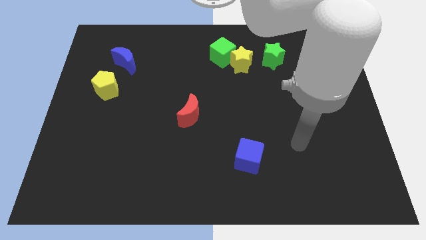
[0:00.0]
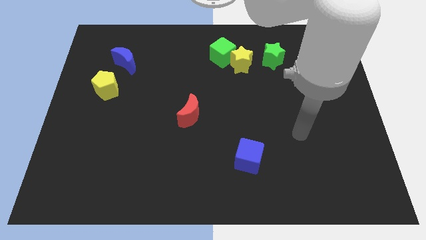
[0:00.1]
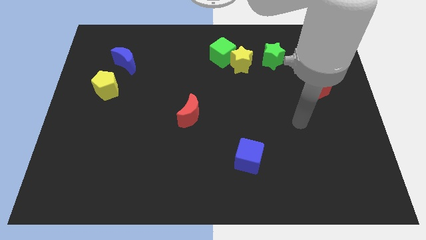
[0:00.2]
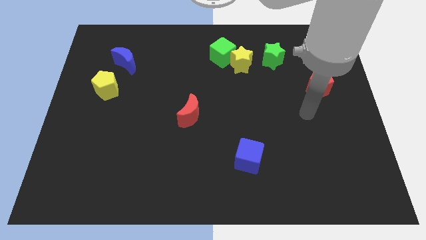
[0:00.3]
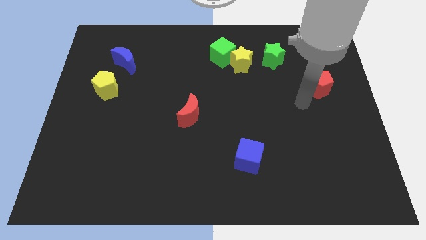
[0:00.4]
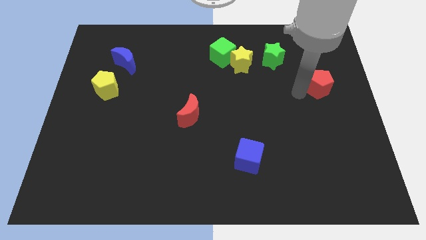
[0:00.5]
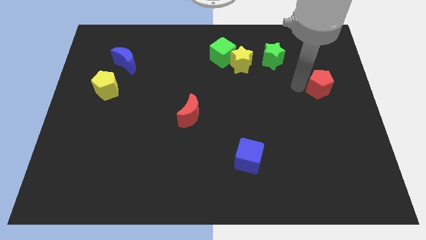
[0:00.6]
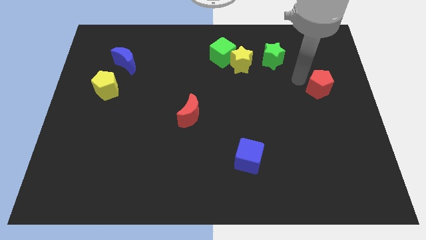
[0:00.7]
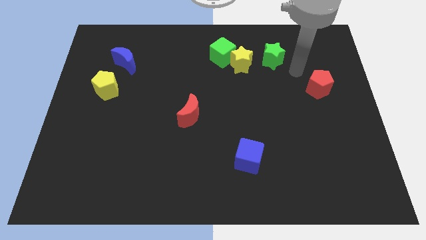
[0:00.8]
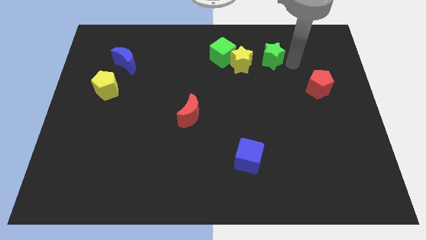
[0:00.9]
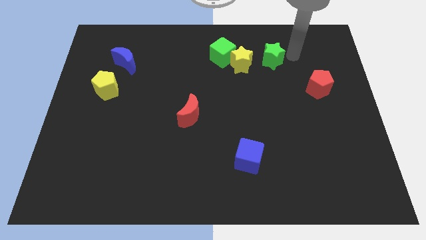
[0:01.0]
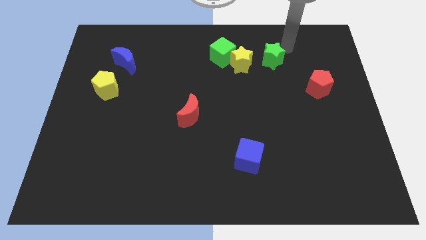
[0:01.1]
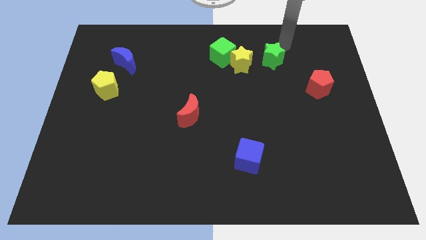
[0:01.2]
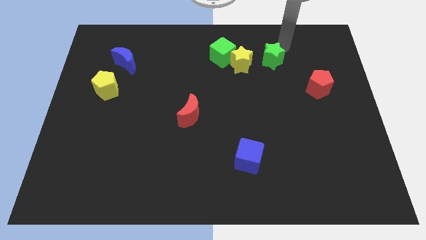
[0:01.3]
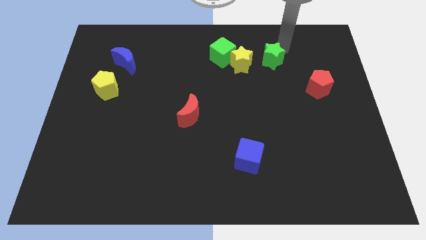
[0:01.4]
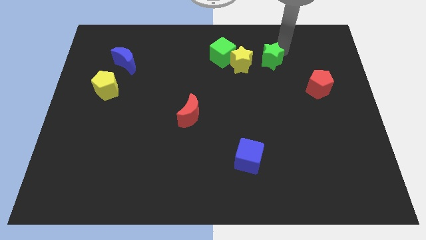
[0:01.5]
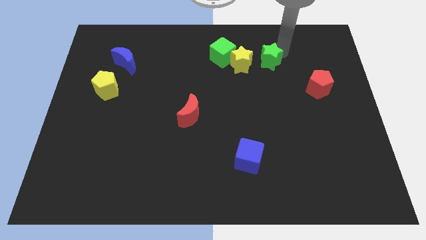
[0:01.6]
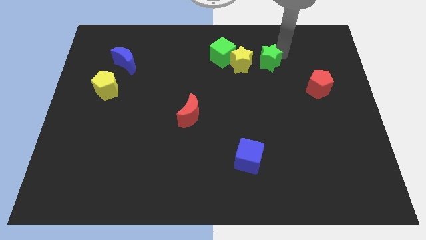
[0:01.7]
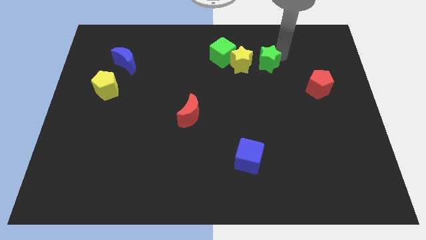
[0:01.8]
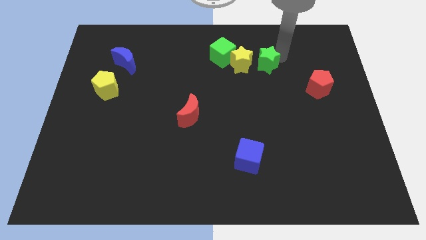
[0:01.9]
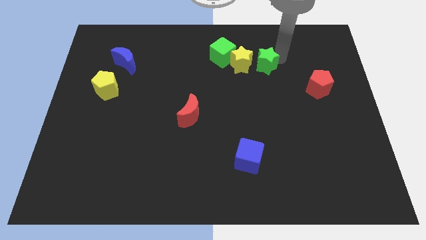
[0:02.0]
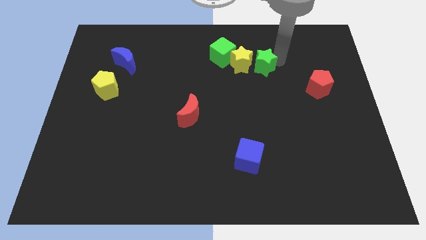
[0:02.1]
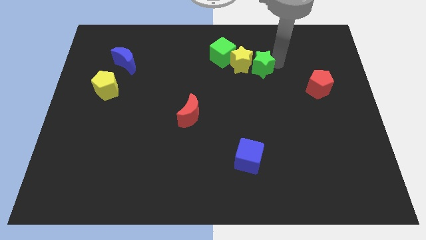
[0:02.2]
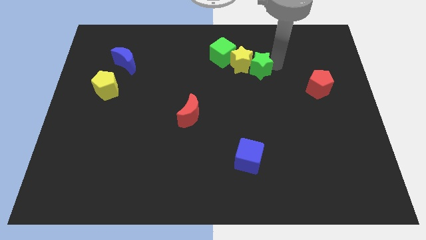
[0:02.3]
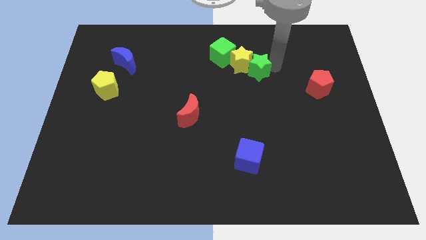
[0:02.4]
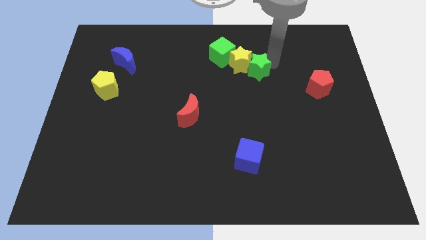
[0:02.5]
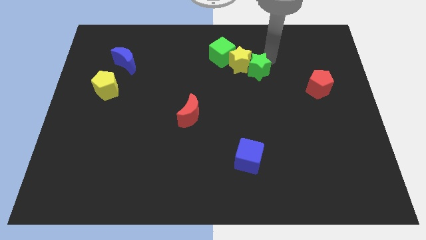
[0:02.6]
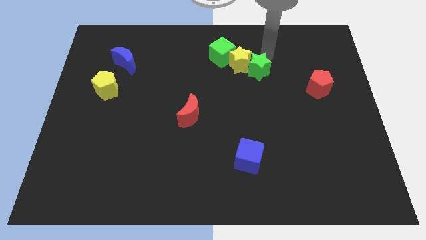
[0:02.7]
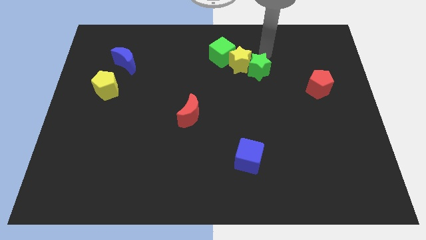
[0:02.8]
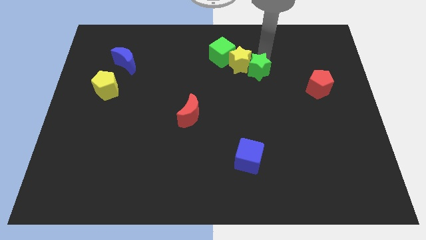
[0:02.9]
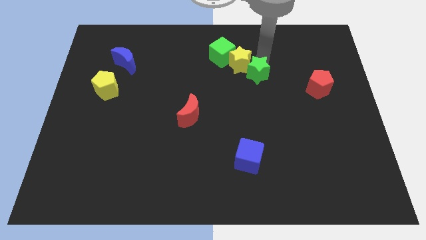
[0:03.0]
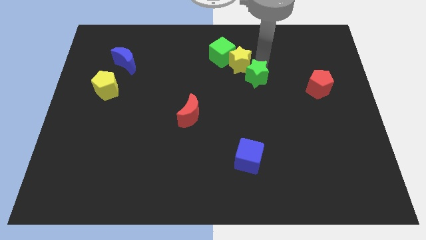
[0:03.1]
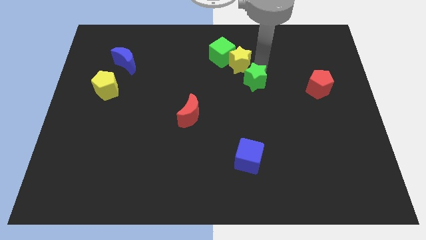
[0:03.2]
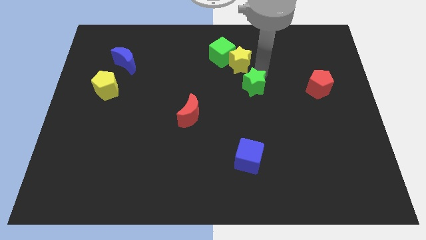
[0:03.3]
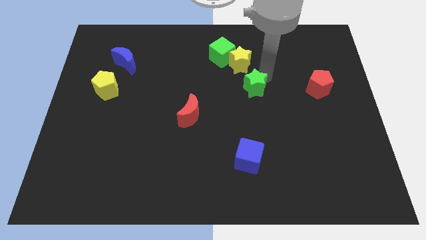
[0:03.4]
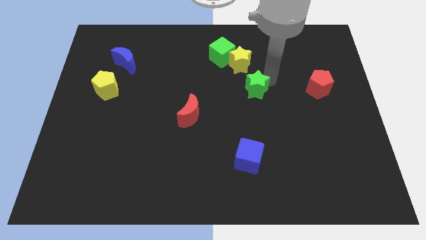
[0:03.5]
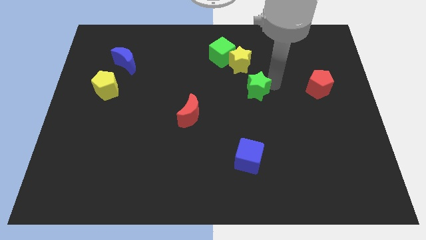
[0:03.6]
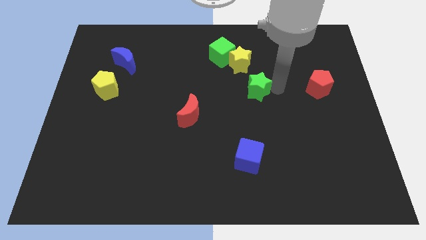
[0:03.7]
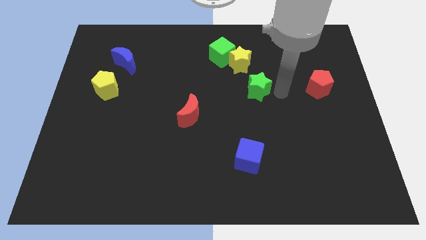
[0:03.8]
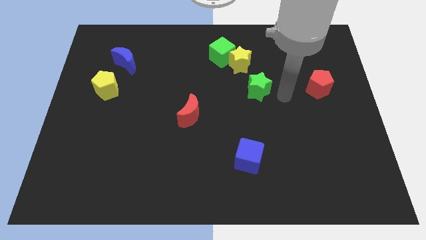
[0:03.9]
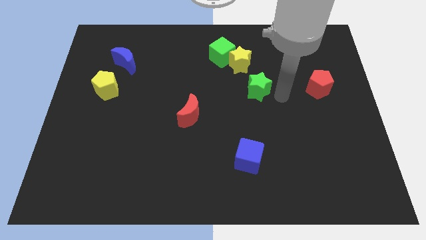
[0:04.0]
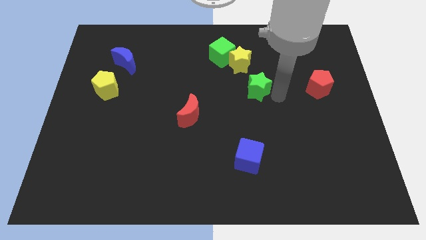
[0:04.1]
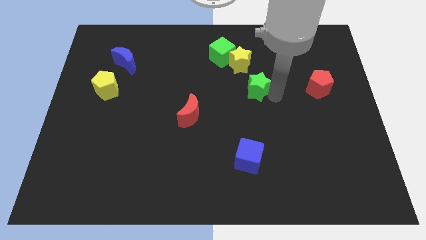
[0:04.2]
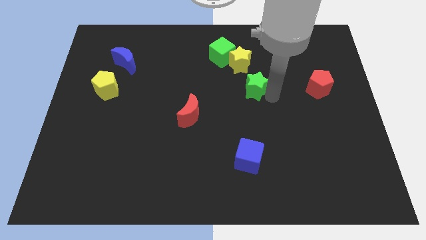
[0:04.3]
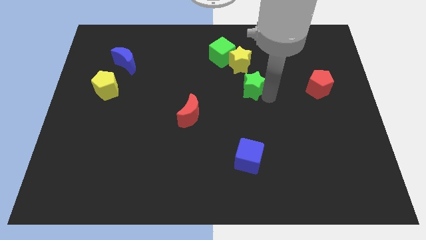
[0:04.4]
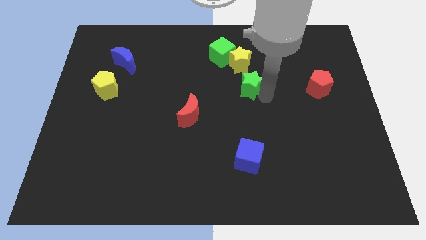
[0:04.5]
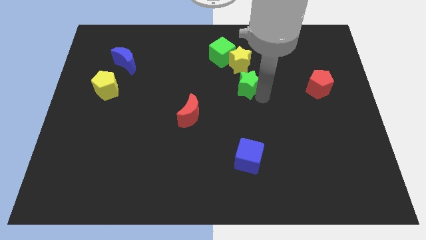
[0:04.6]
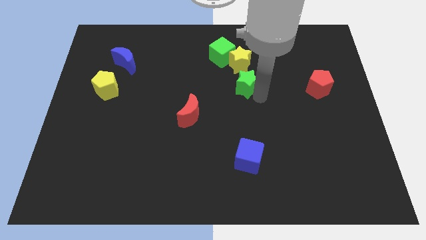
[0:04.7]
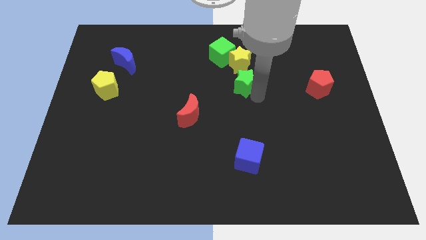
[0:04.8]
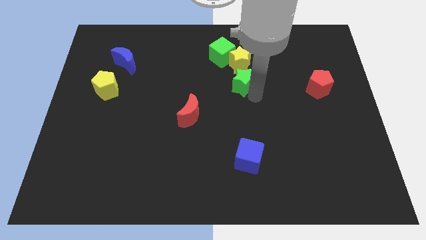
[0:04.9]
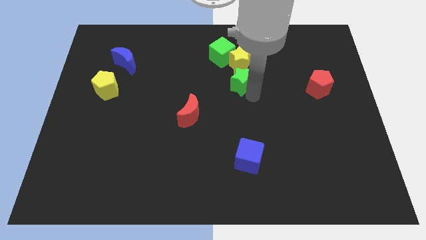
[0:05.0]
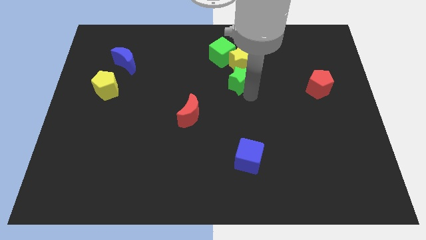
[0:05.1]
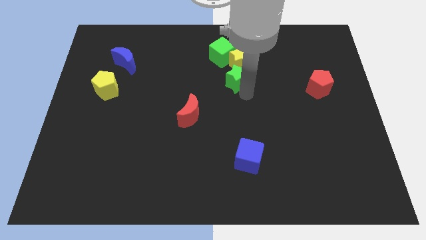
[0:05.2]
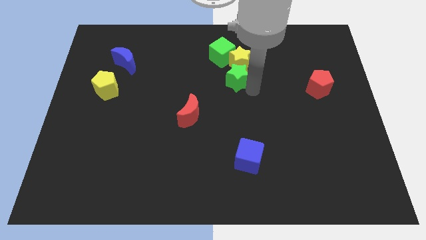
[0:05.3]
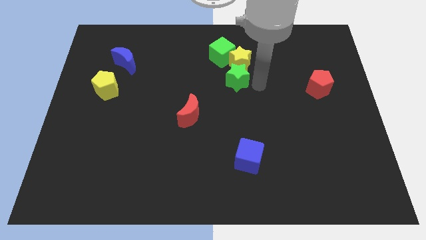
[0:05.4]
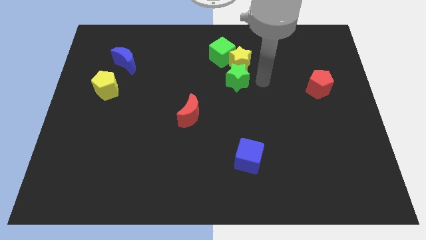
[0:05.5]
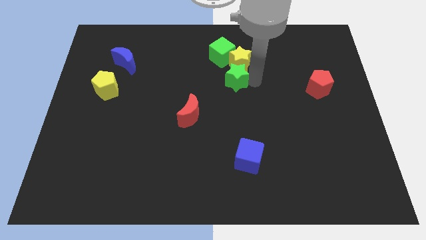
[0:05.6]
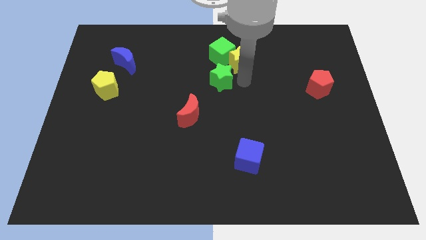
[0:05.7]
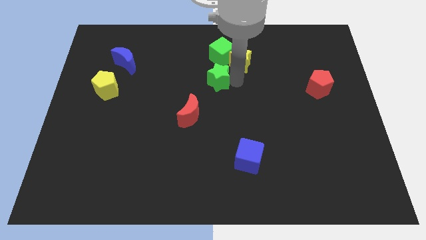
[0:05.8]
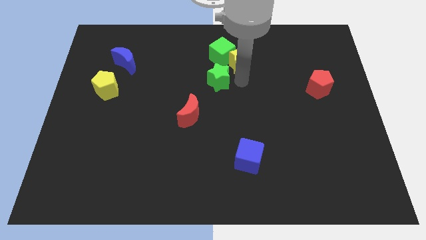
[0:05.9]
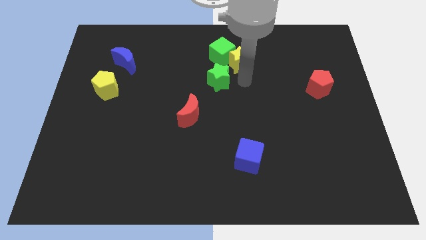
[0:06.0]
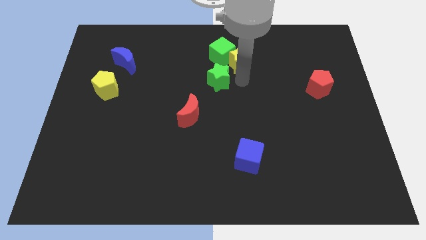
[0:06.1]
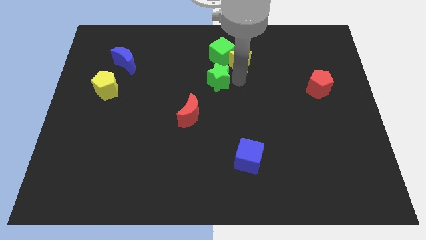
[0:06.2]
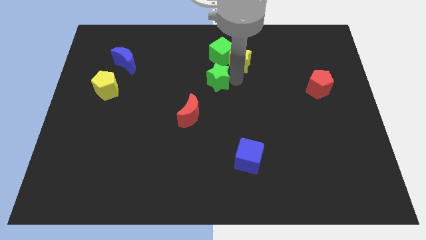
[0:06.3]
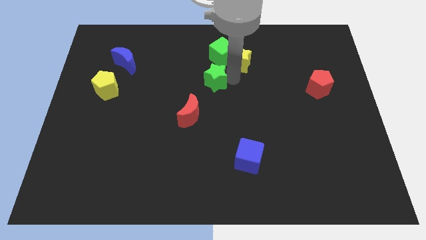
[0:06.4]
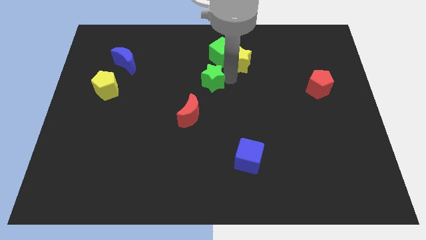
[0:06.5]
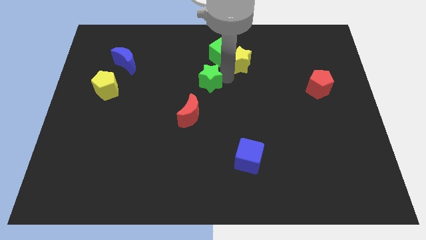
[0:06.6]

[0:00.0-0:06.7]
slide the green star to the top of the red moon
